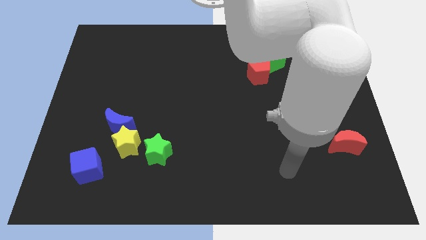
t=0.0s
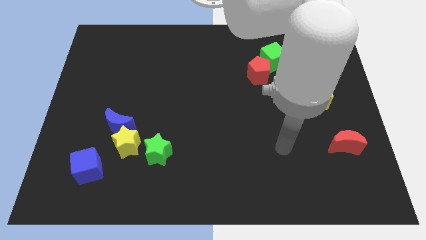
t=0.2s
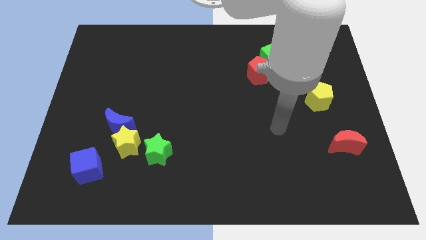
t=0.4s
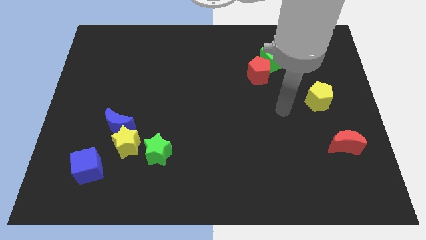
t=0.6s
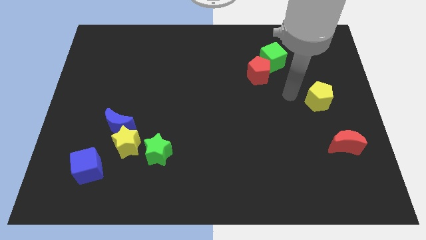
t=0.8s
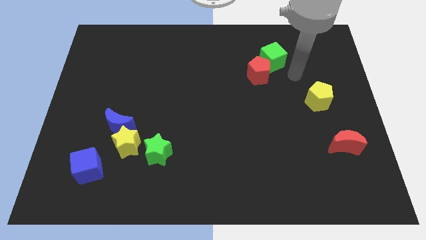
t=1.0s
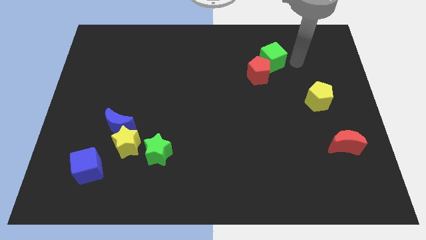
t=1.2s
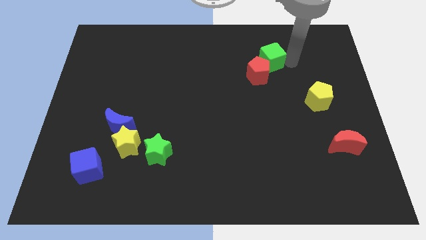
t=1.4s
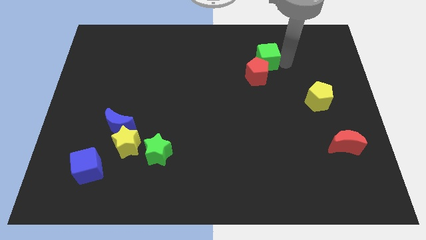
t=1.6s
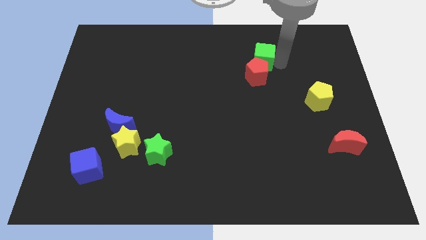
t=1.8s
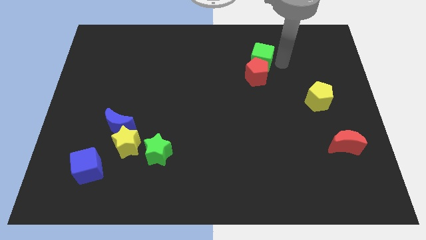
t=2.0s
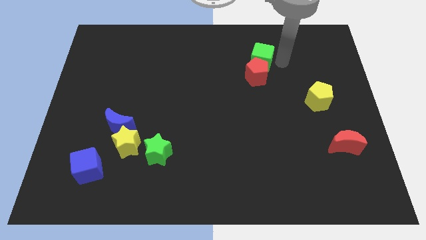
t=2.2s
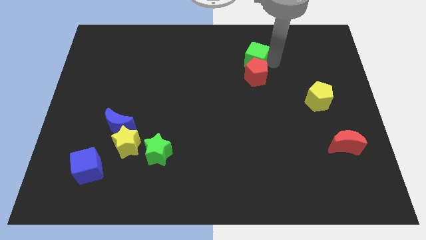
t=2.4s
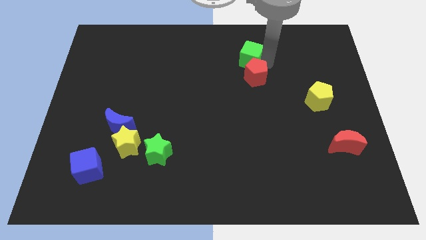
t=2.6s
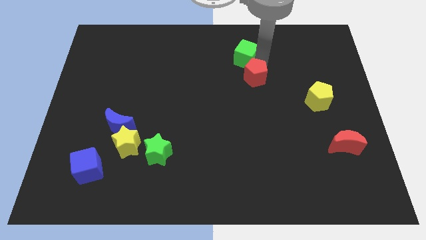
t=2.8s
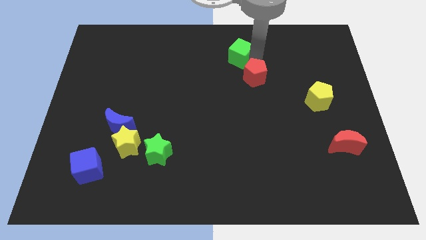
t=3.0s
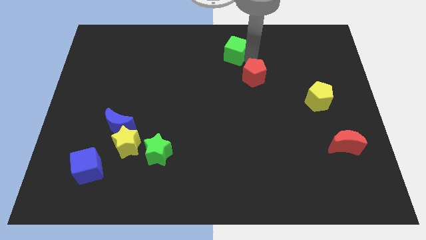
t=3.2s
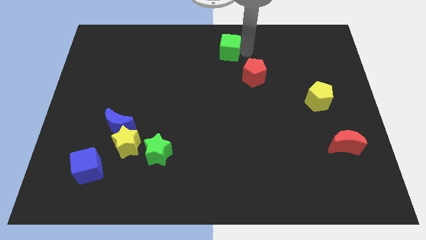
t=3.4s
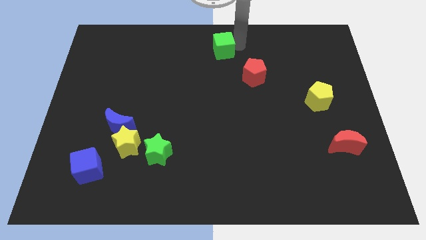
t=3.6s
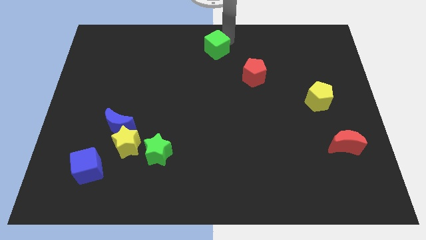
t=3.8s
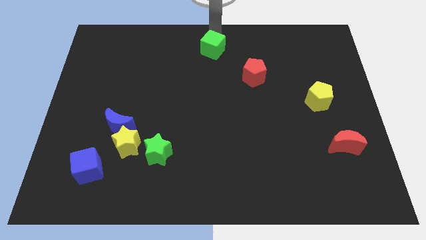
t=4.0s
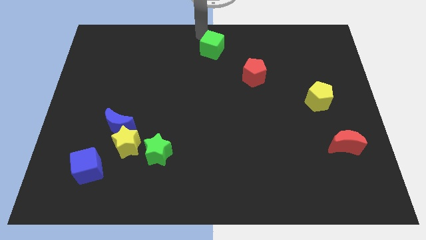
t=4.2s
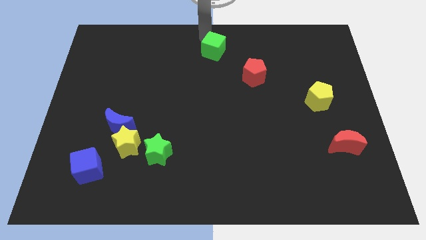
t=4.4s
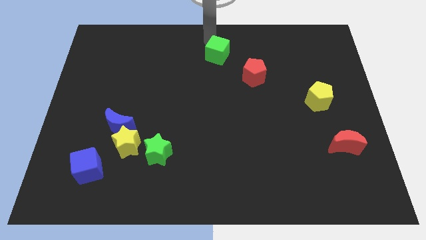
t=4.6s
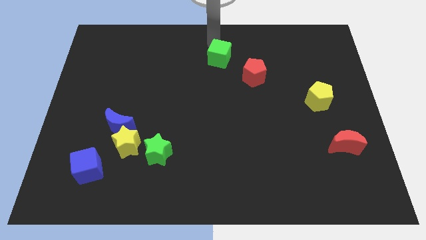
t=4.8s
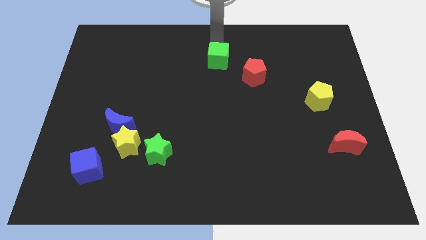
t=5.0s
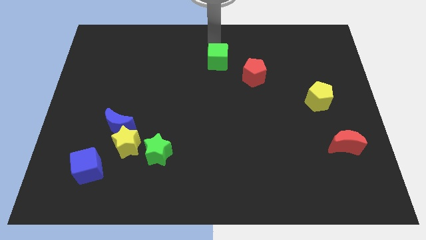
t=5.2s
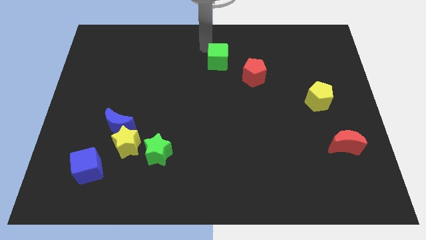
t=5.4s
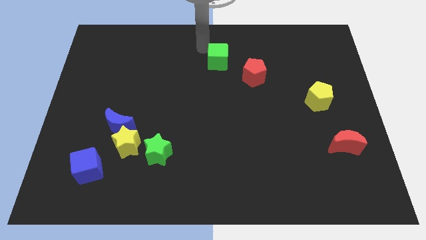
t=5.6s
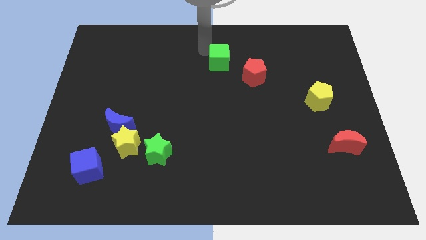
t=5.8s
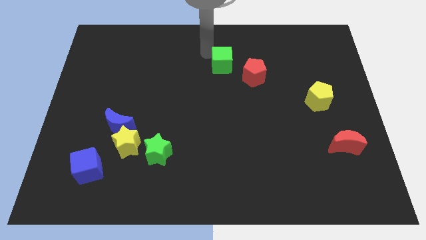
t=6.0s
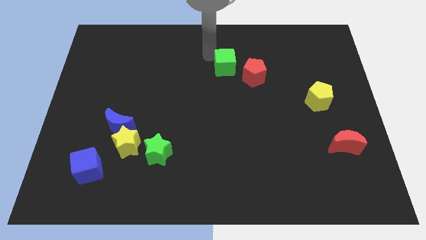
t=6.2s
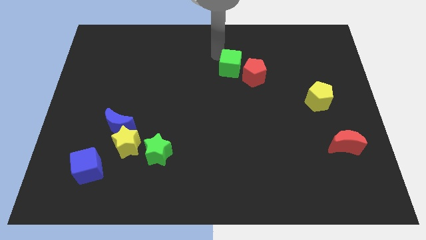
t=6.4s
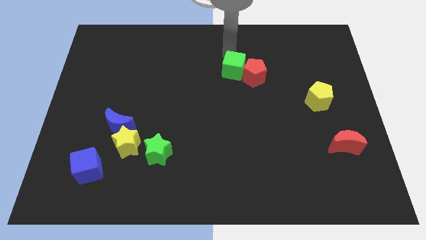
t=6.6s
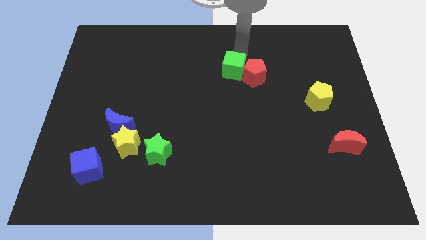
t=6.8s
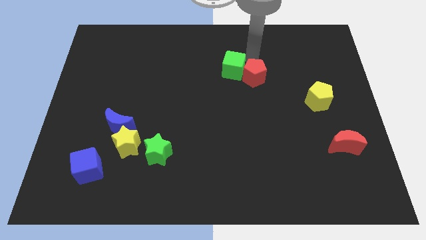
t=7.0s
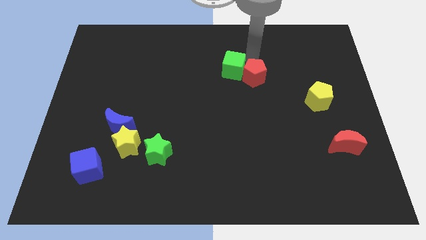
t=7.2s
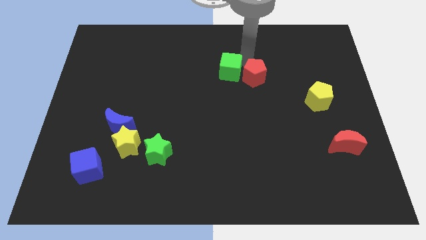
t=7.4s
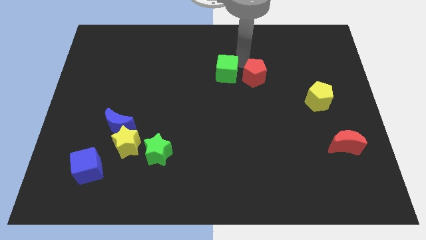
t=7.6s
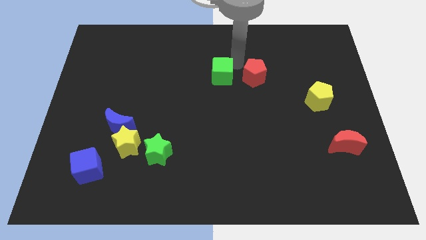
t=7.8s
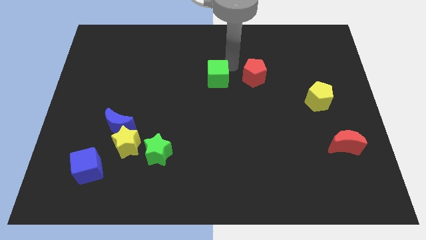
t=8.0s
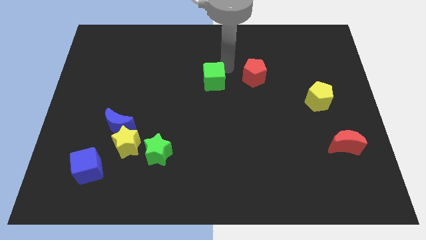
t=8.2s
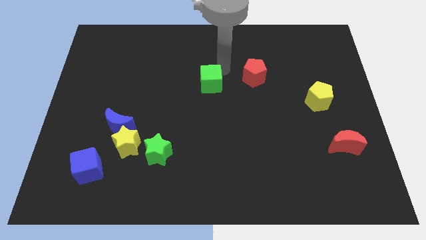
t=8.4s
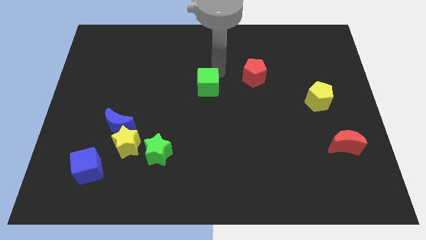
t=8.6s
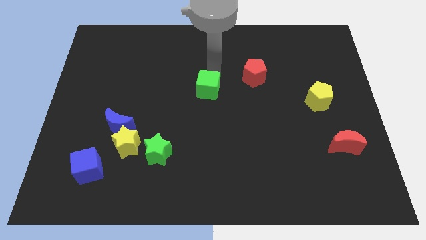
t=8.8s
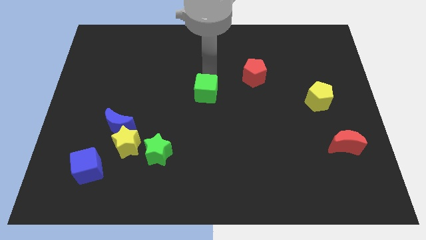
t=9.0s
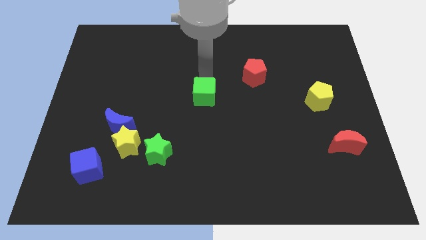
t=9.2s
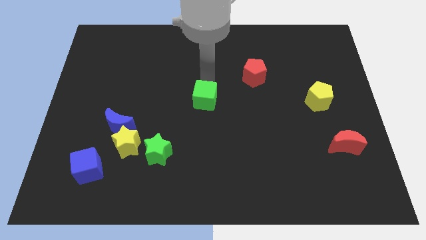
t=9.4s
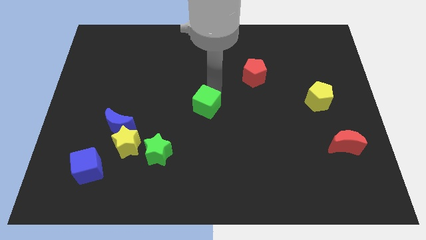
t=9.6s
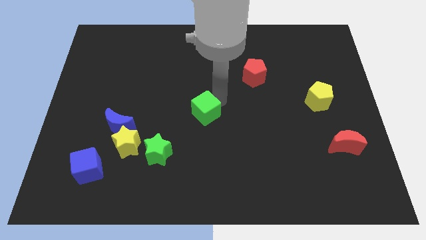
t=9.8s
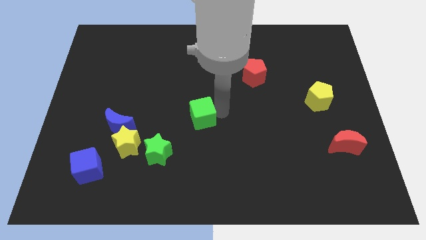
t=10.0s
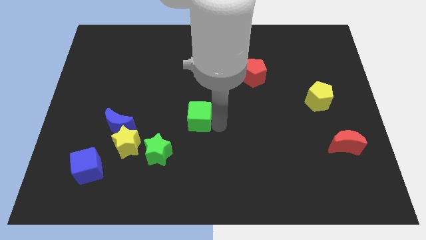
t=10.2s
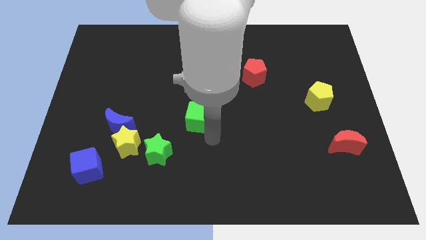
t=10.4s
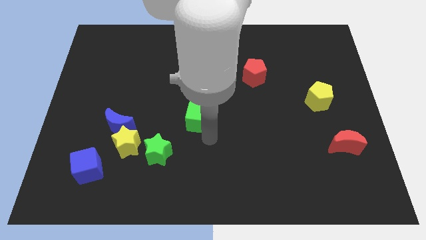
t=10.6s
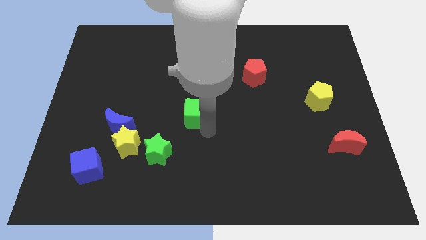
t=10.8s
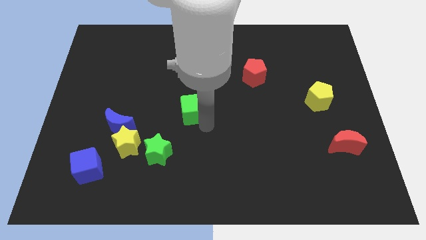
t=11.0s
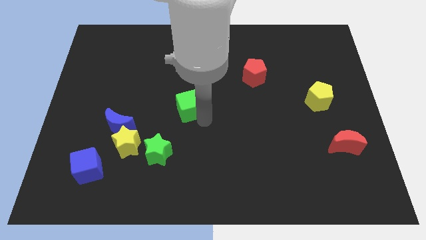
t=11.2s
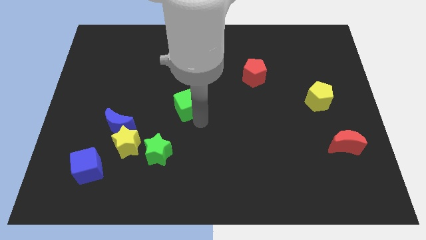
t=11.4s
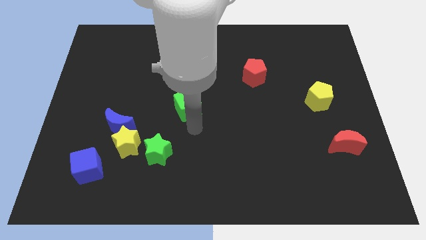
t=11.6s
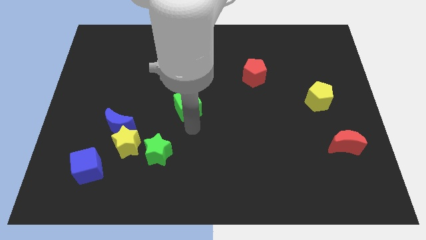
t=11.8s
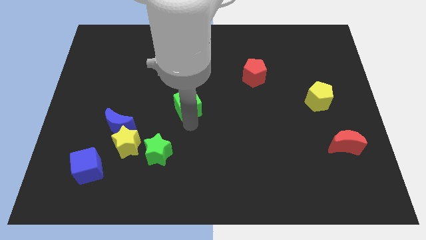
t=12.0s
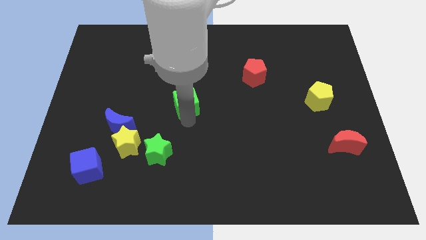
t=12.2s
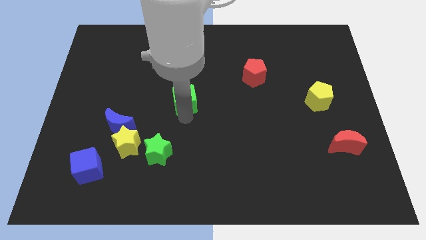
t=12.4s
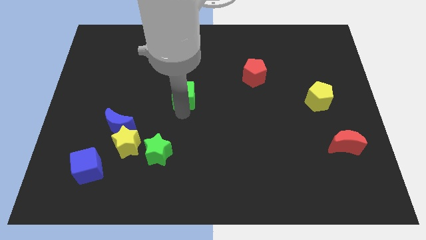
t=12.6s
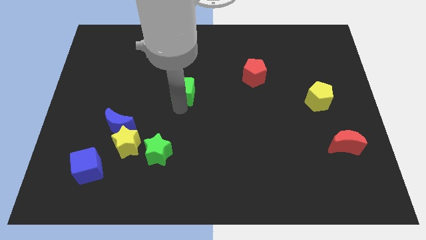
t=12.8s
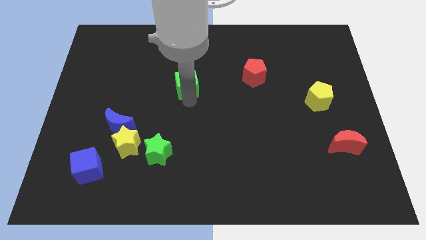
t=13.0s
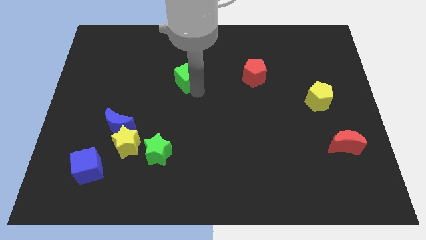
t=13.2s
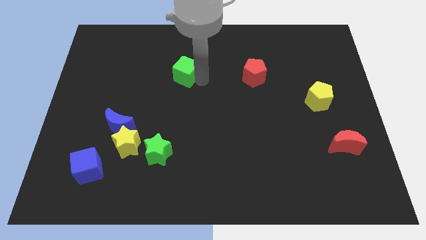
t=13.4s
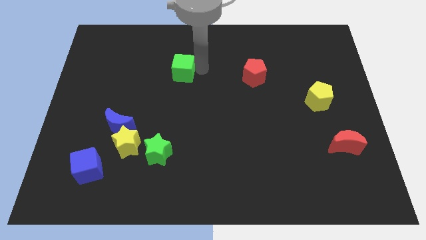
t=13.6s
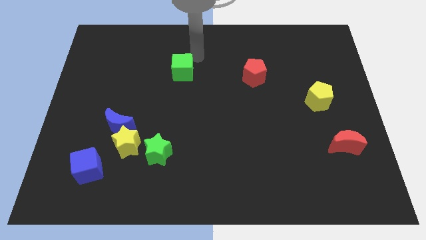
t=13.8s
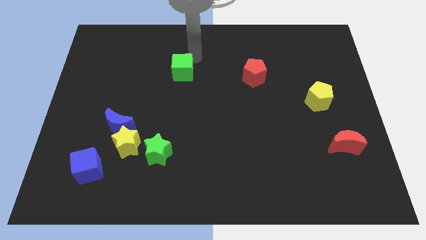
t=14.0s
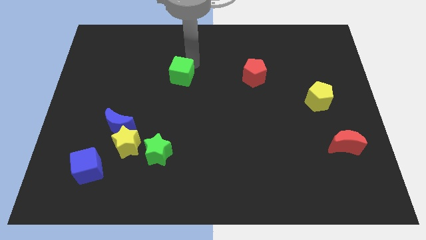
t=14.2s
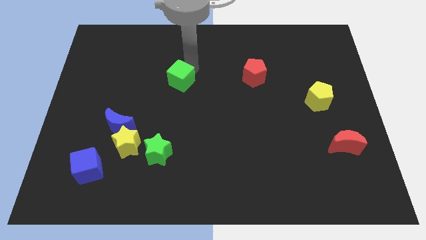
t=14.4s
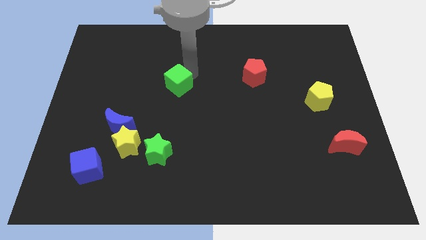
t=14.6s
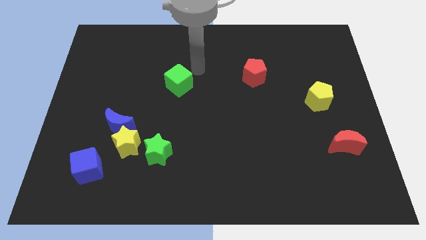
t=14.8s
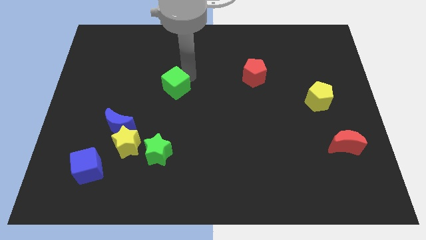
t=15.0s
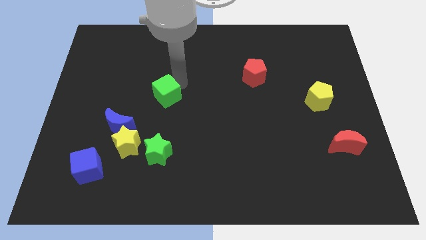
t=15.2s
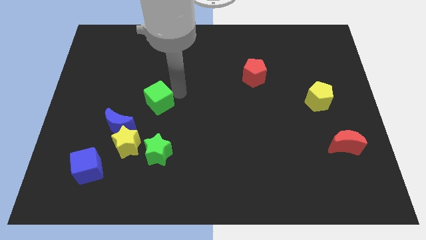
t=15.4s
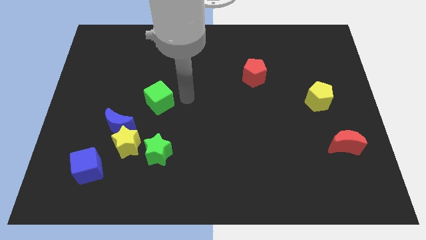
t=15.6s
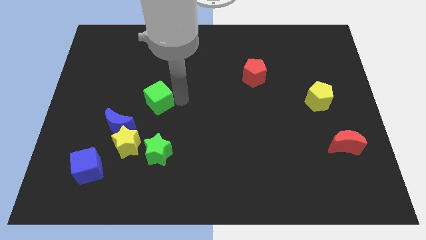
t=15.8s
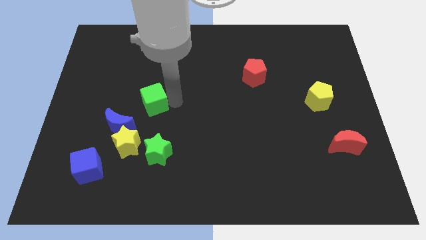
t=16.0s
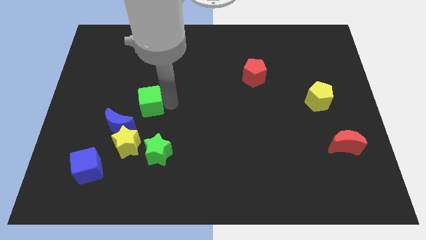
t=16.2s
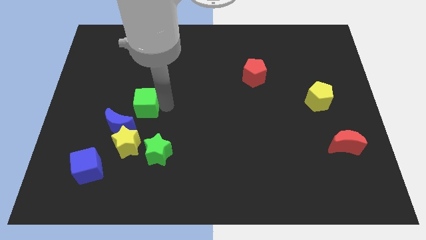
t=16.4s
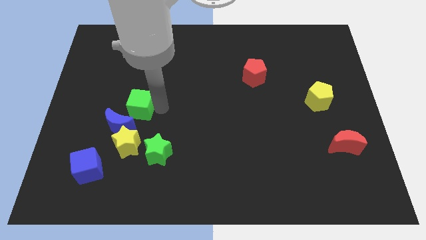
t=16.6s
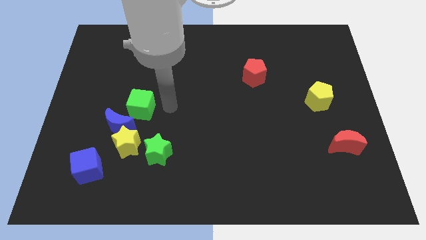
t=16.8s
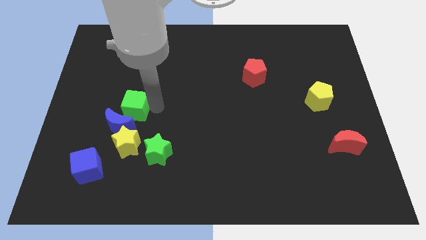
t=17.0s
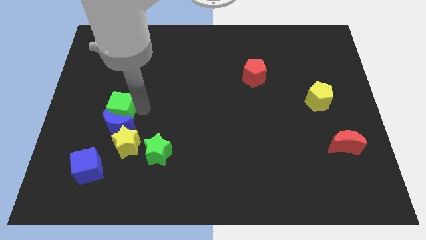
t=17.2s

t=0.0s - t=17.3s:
move the green cube diagonally up and to the left of the yellow star
